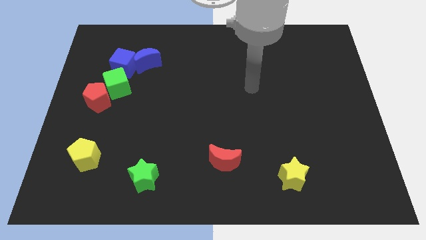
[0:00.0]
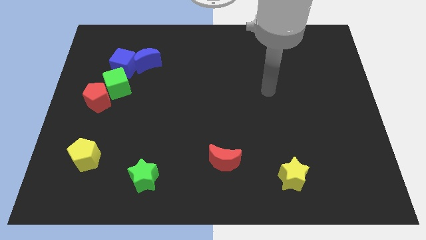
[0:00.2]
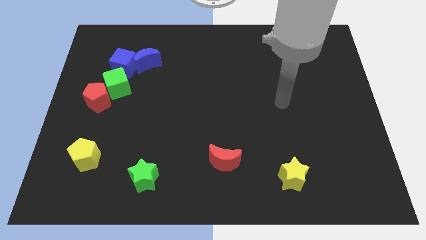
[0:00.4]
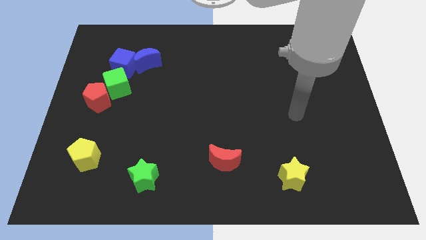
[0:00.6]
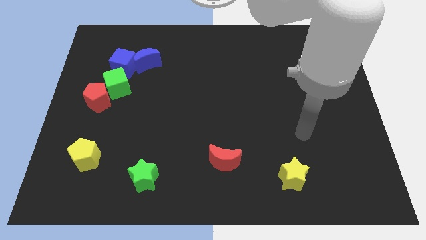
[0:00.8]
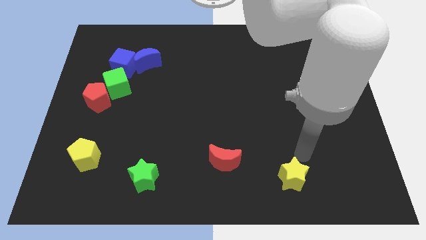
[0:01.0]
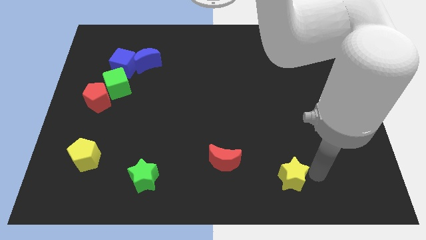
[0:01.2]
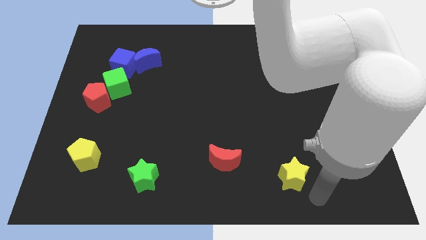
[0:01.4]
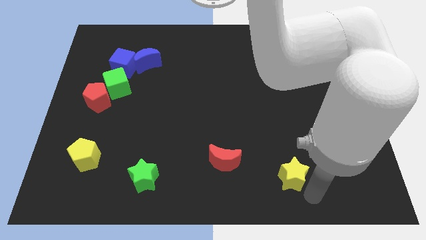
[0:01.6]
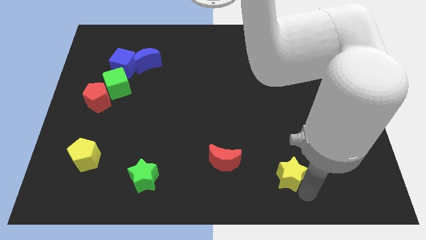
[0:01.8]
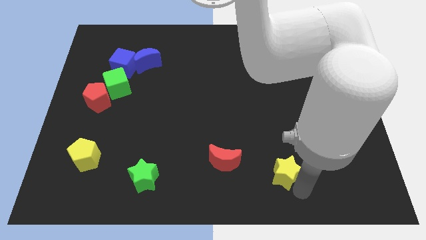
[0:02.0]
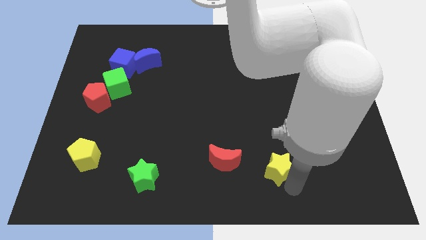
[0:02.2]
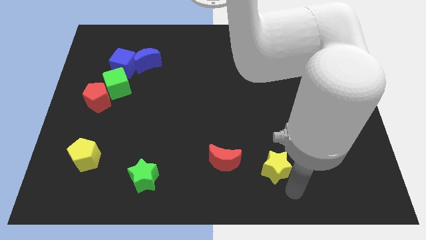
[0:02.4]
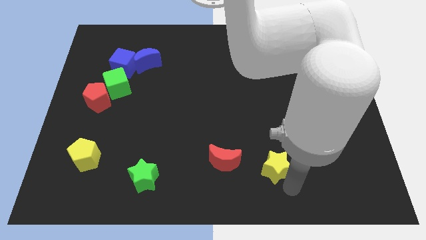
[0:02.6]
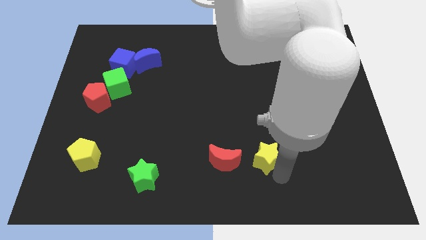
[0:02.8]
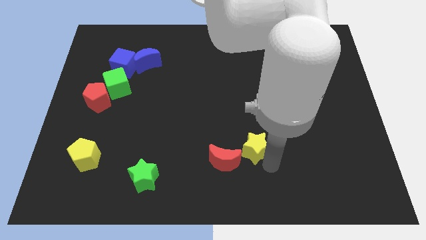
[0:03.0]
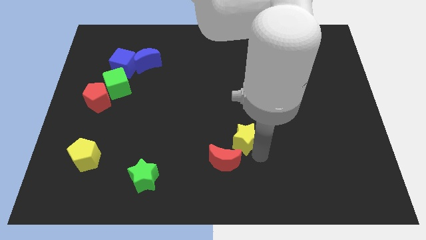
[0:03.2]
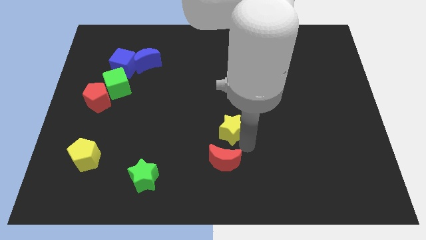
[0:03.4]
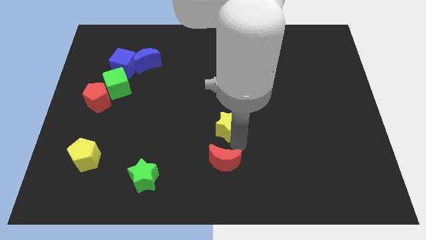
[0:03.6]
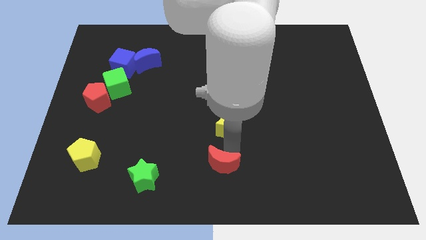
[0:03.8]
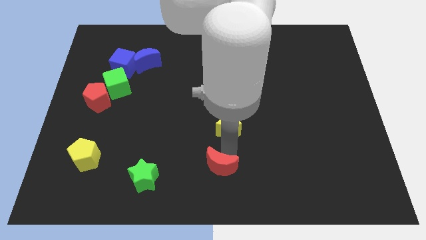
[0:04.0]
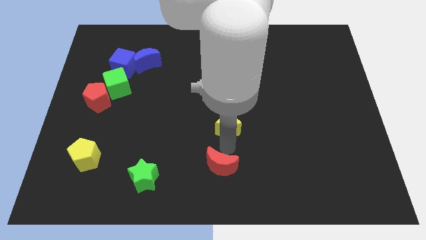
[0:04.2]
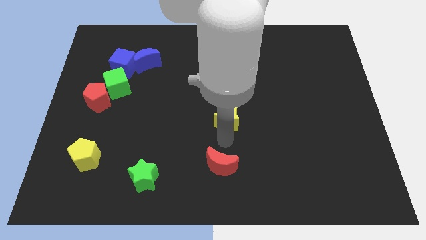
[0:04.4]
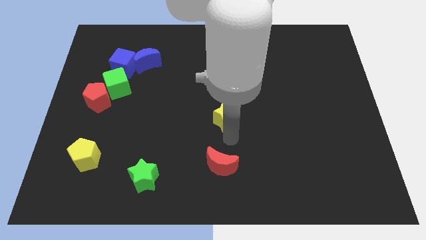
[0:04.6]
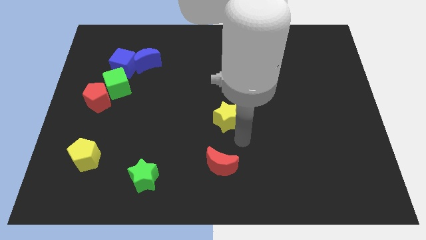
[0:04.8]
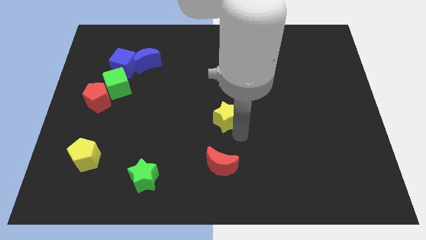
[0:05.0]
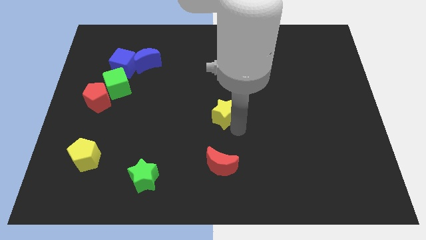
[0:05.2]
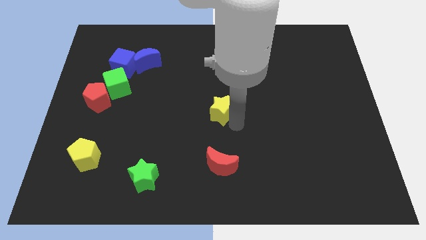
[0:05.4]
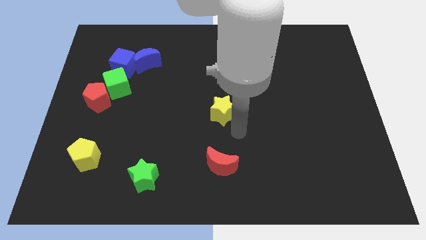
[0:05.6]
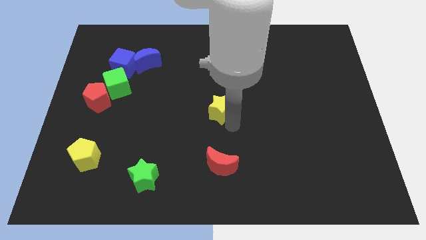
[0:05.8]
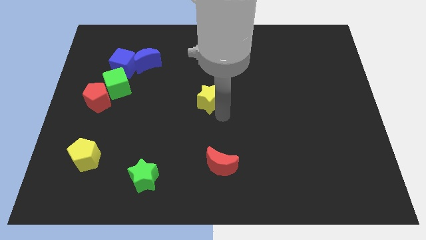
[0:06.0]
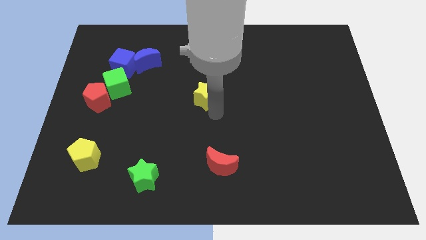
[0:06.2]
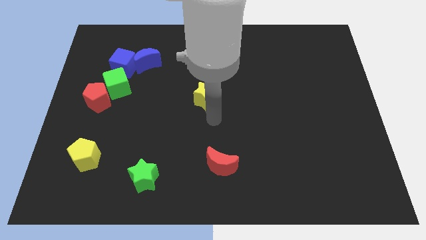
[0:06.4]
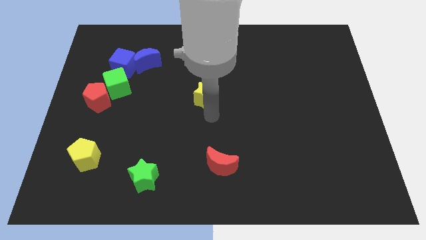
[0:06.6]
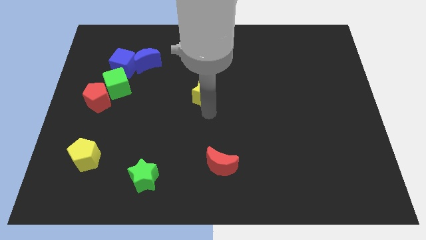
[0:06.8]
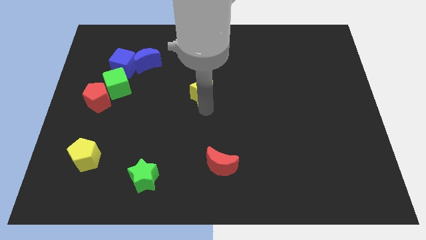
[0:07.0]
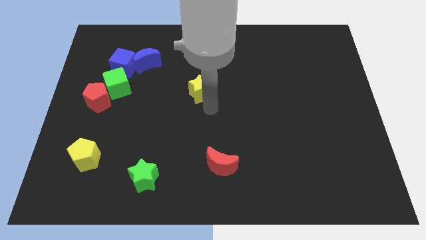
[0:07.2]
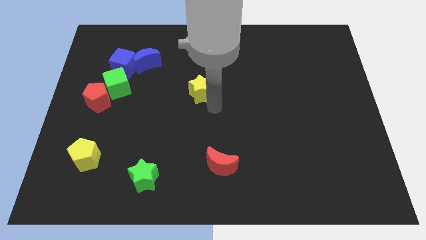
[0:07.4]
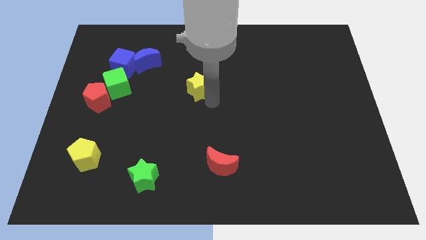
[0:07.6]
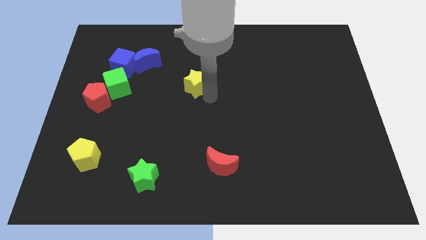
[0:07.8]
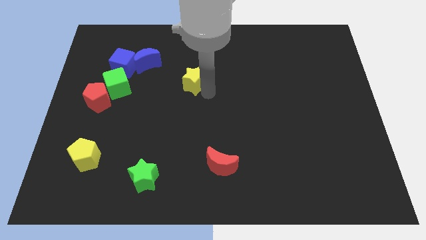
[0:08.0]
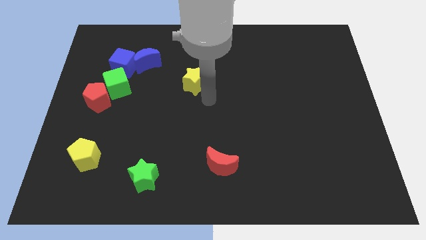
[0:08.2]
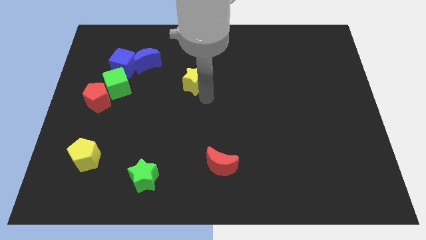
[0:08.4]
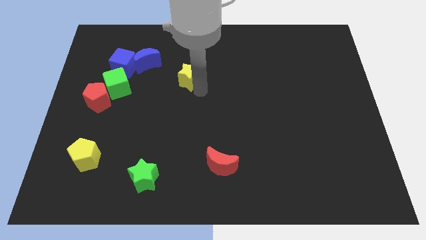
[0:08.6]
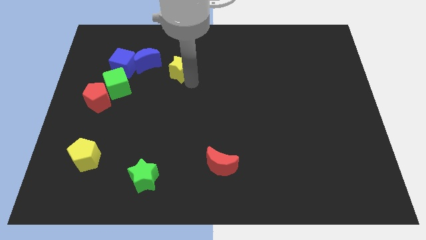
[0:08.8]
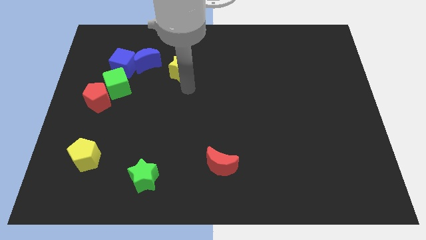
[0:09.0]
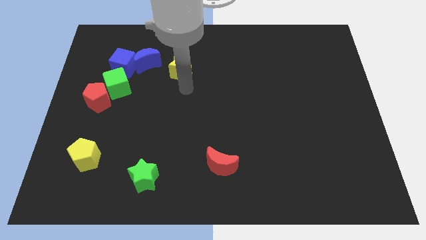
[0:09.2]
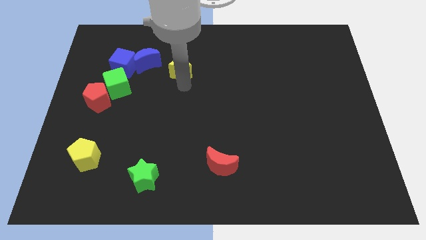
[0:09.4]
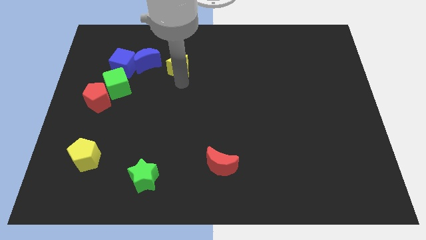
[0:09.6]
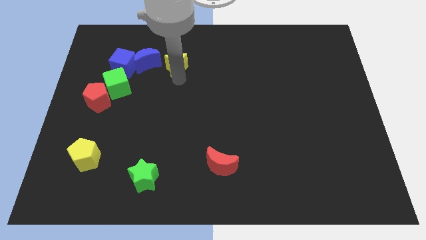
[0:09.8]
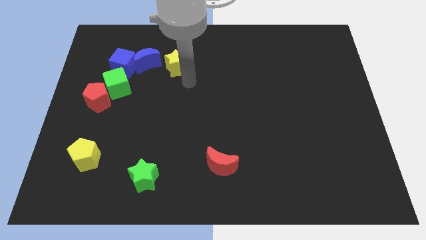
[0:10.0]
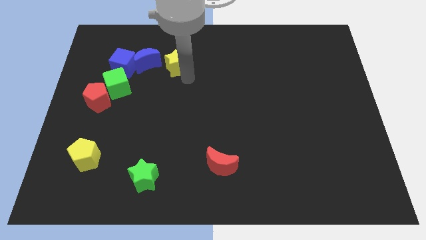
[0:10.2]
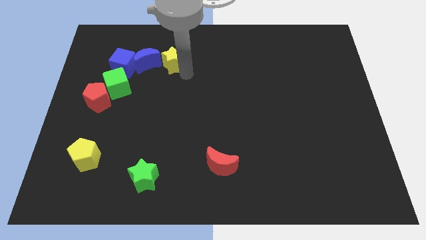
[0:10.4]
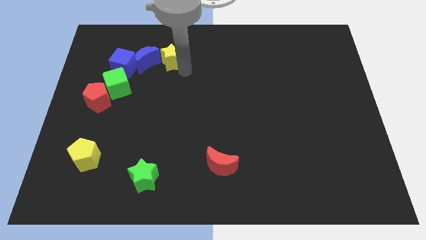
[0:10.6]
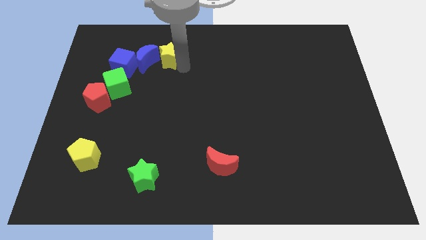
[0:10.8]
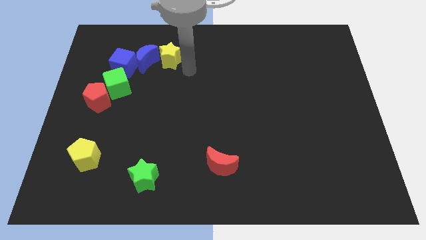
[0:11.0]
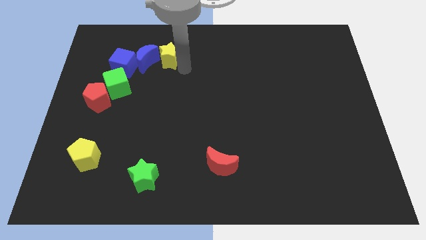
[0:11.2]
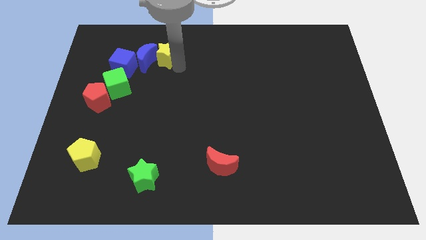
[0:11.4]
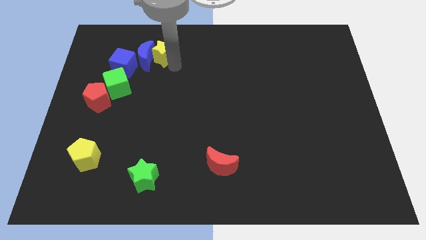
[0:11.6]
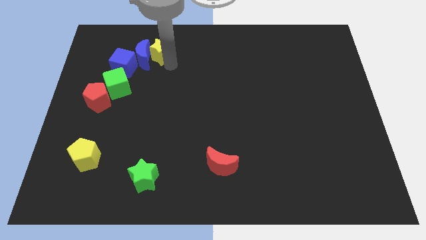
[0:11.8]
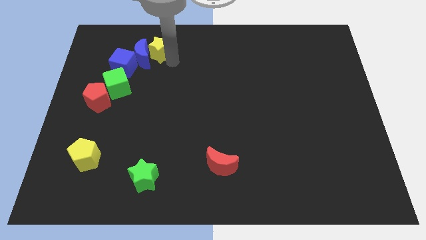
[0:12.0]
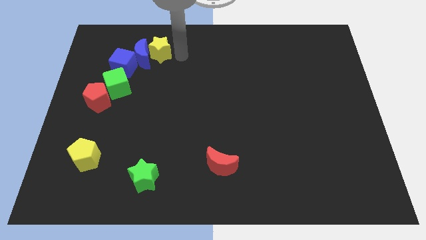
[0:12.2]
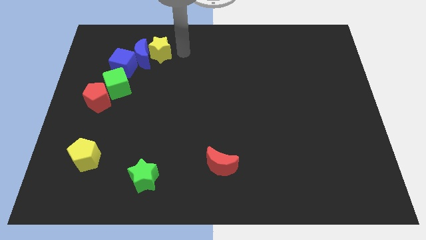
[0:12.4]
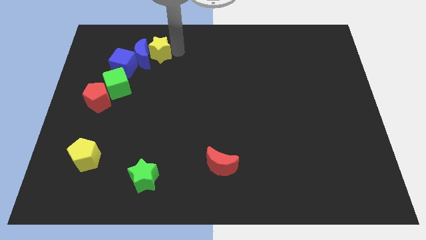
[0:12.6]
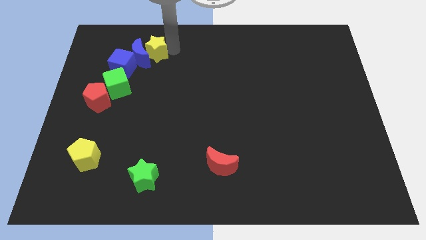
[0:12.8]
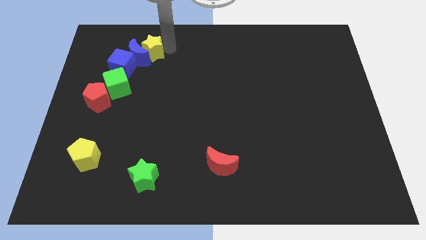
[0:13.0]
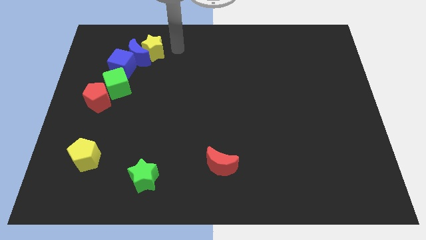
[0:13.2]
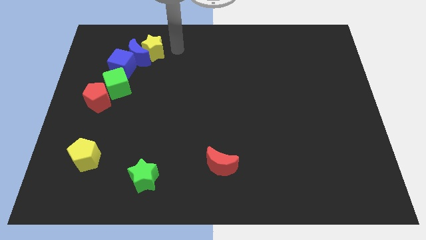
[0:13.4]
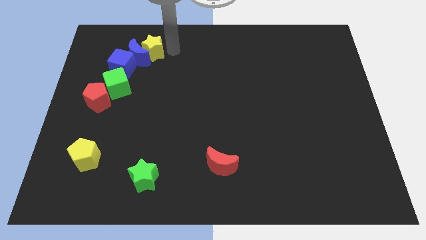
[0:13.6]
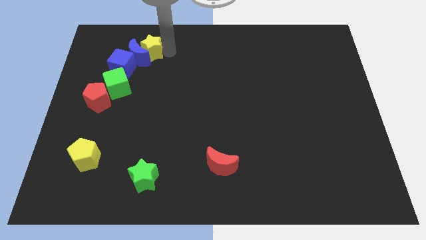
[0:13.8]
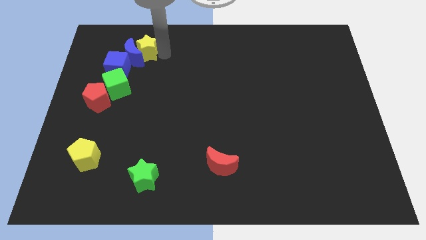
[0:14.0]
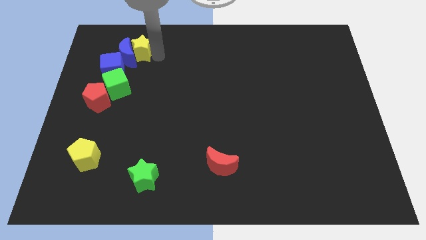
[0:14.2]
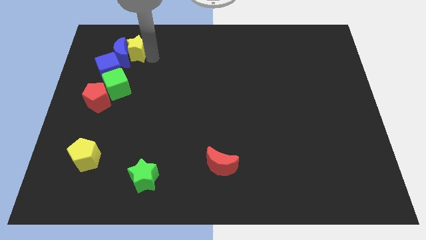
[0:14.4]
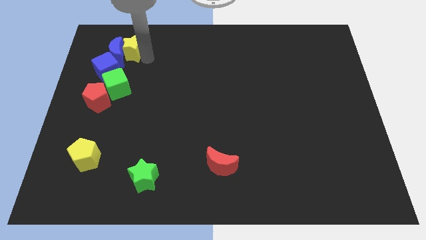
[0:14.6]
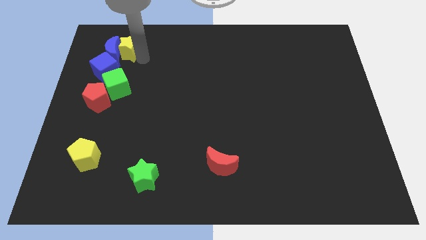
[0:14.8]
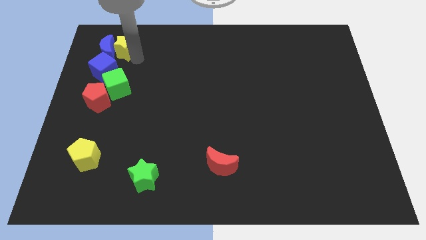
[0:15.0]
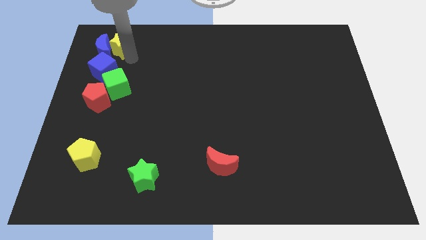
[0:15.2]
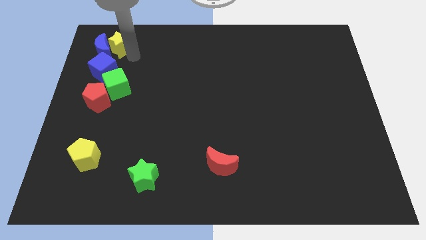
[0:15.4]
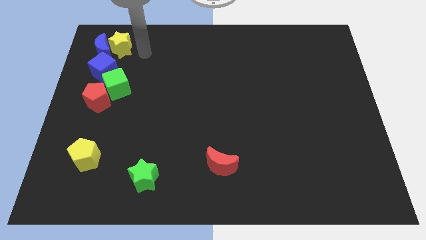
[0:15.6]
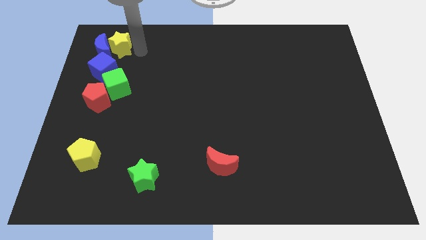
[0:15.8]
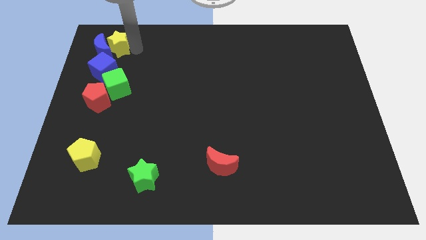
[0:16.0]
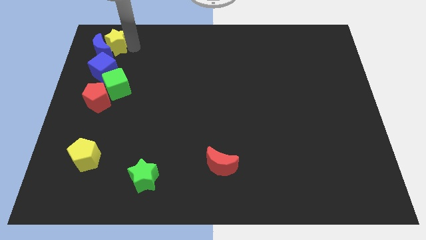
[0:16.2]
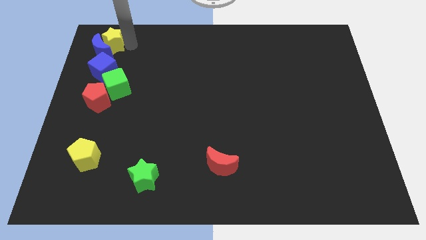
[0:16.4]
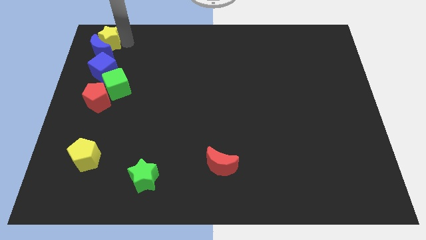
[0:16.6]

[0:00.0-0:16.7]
put the yellow star to the upper left corner
